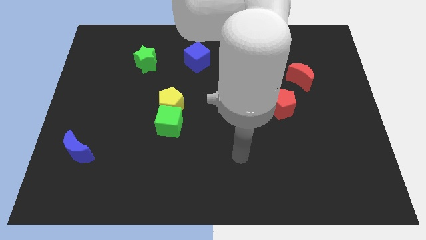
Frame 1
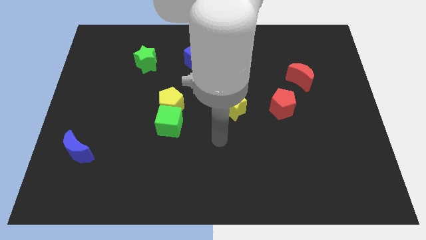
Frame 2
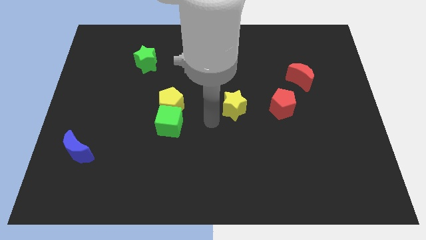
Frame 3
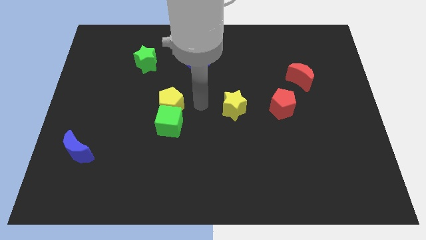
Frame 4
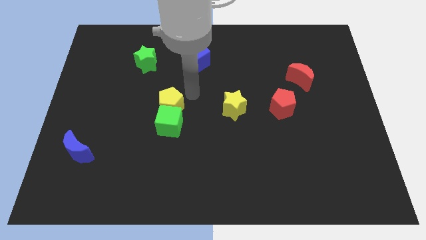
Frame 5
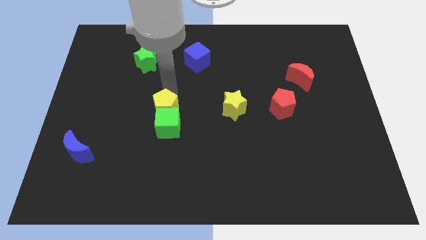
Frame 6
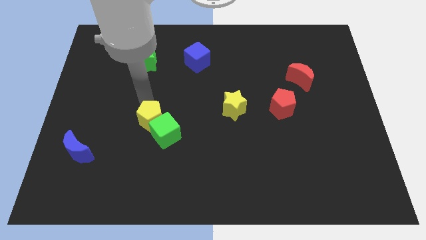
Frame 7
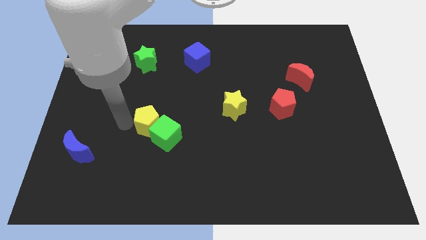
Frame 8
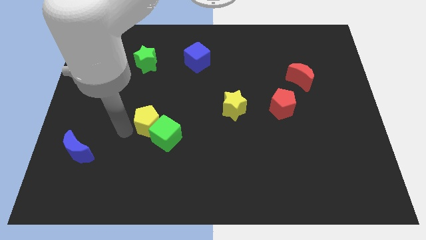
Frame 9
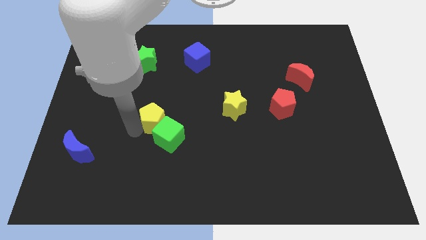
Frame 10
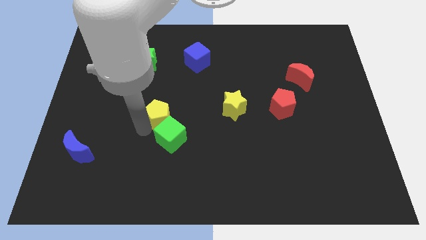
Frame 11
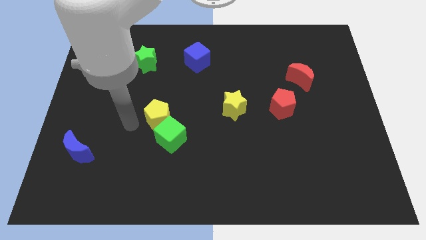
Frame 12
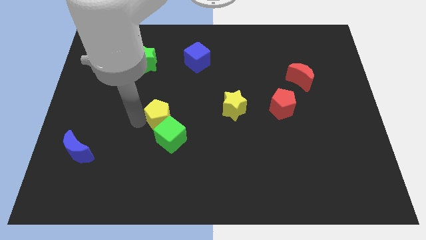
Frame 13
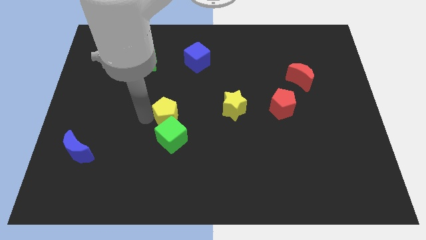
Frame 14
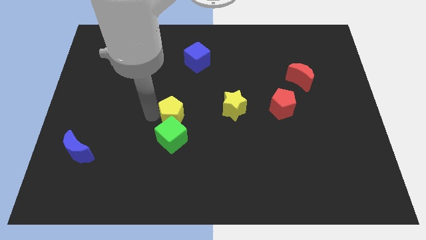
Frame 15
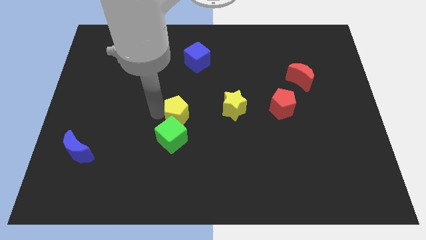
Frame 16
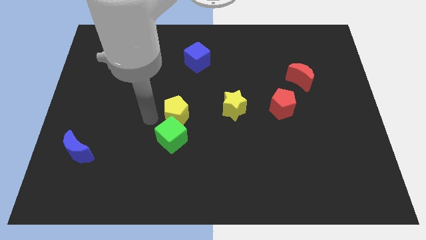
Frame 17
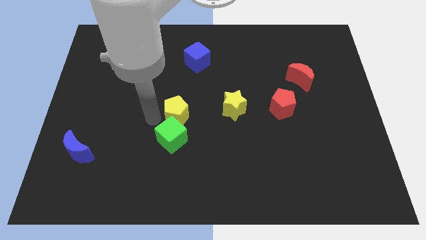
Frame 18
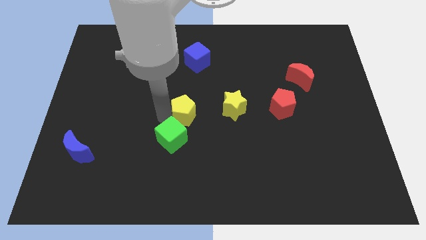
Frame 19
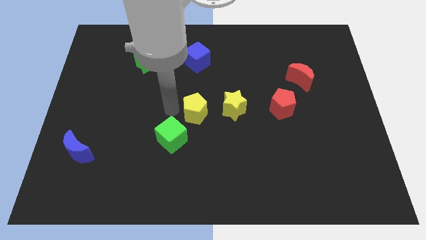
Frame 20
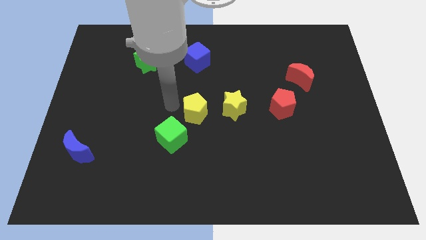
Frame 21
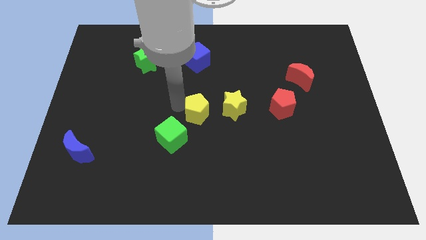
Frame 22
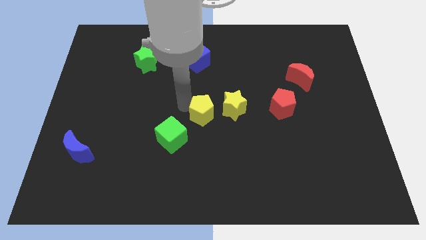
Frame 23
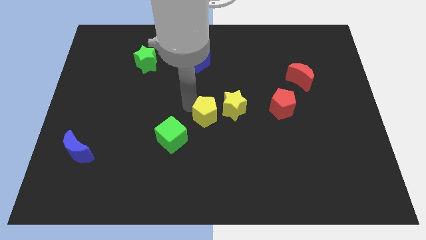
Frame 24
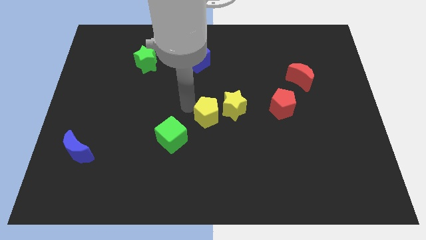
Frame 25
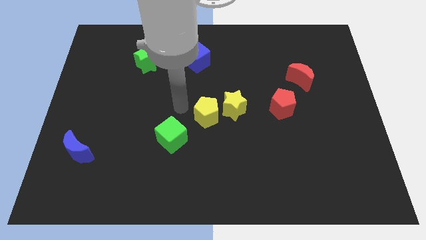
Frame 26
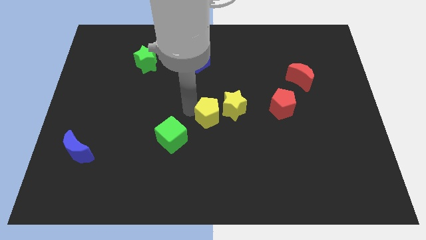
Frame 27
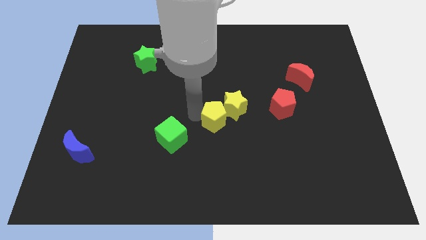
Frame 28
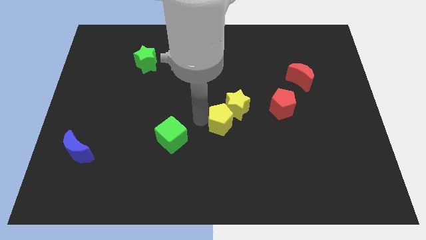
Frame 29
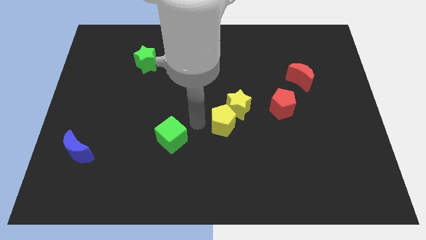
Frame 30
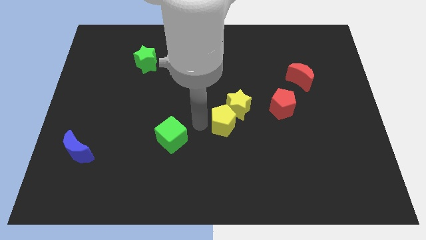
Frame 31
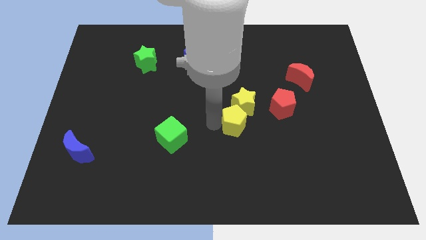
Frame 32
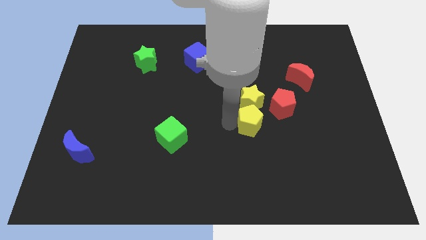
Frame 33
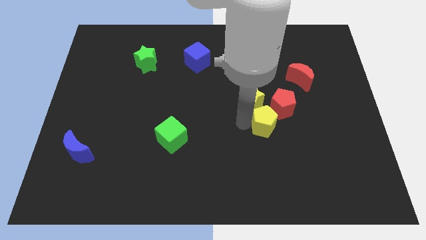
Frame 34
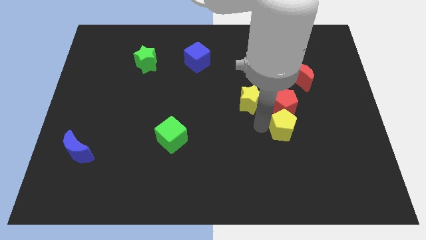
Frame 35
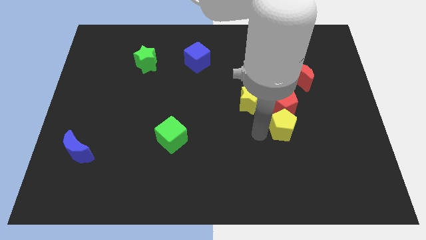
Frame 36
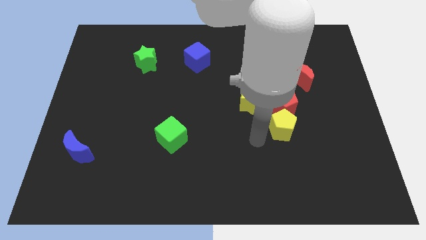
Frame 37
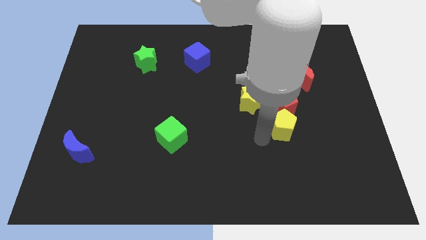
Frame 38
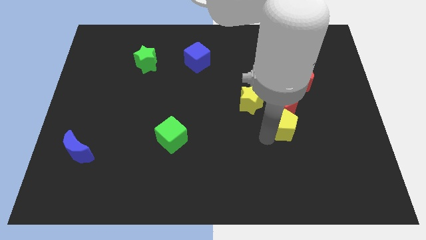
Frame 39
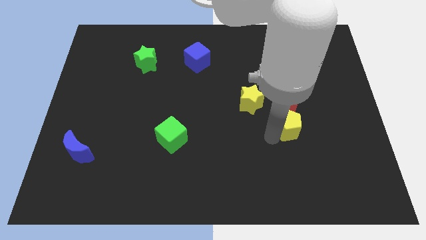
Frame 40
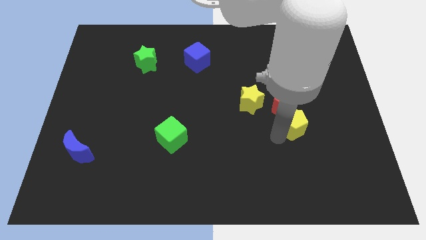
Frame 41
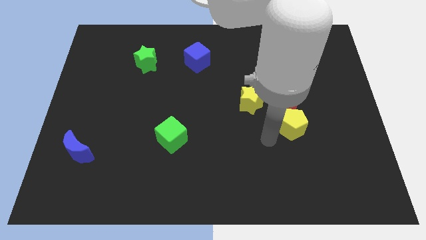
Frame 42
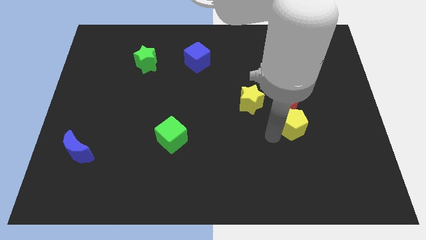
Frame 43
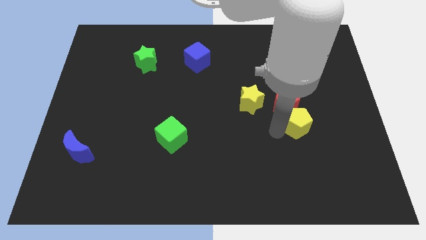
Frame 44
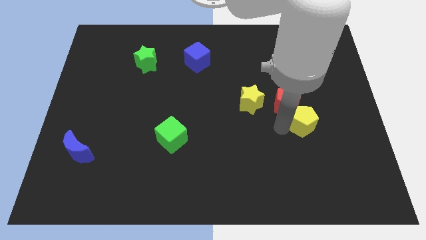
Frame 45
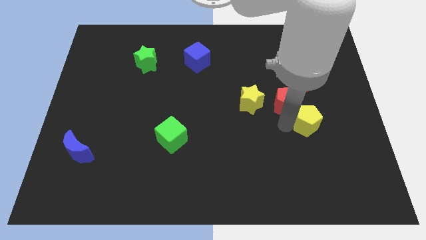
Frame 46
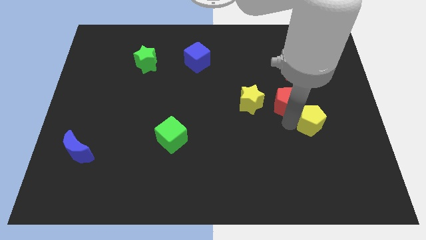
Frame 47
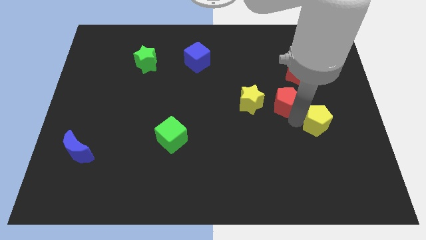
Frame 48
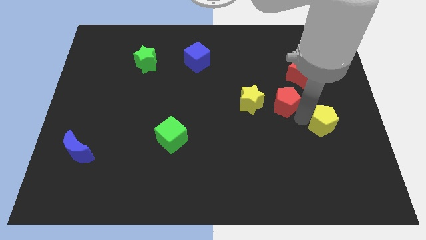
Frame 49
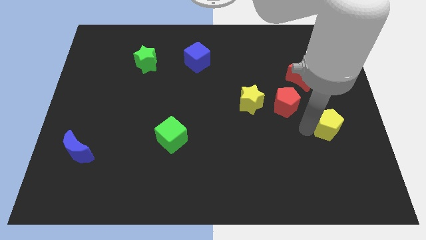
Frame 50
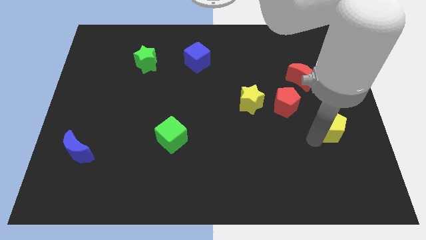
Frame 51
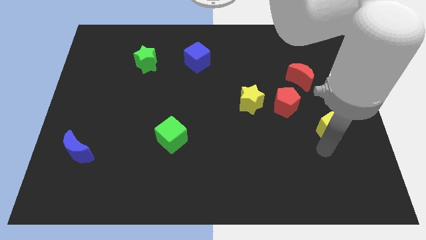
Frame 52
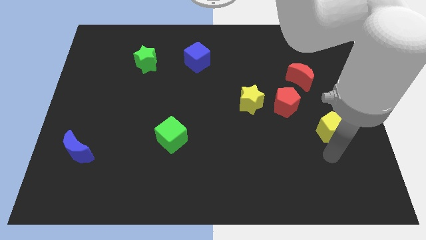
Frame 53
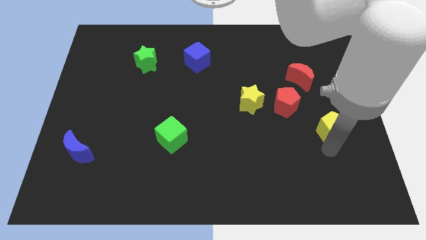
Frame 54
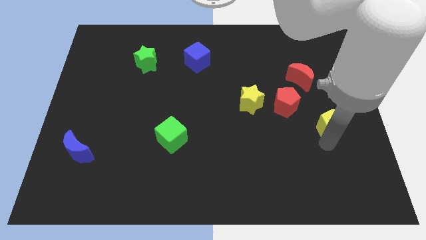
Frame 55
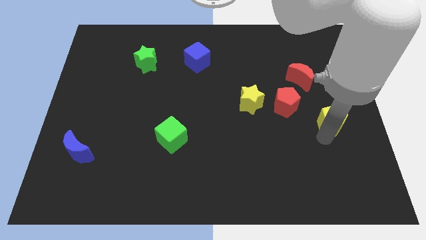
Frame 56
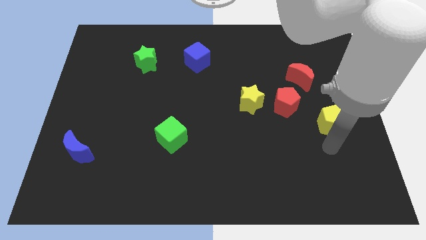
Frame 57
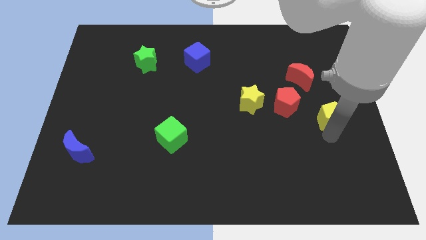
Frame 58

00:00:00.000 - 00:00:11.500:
put the yellow pentagon right of the red pentagon

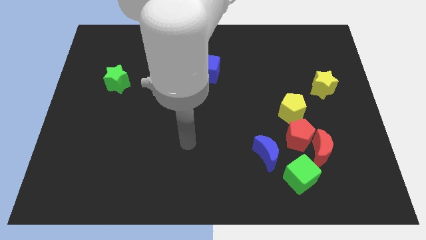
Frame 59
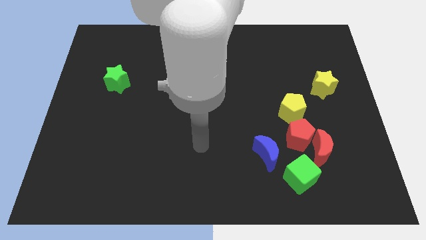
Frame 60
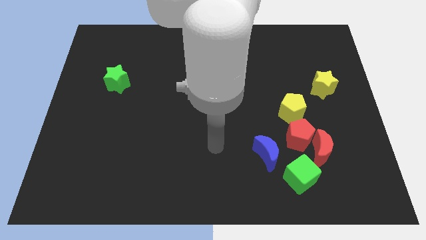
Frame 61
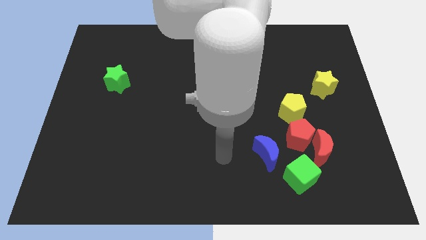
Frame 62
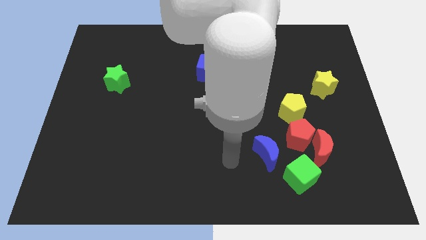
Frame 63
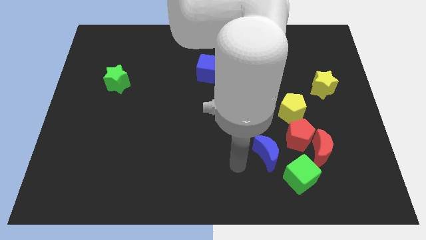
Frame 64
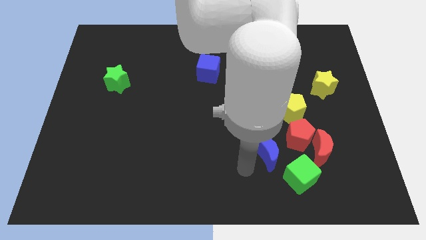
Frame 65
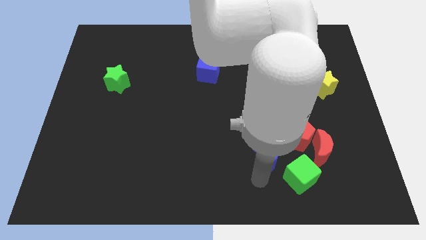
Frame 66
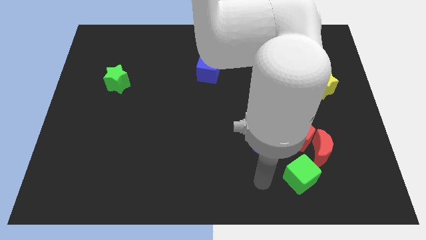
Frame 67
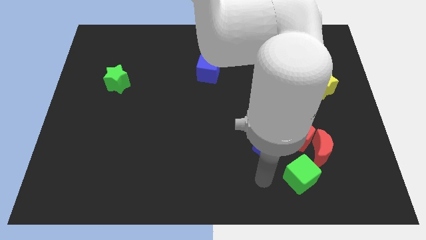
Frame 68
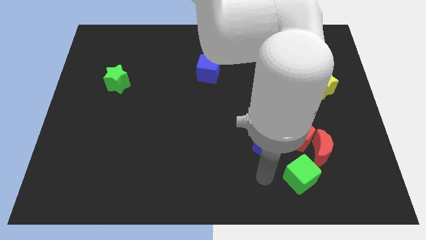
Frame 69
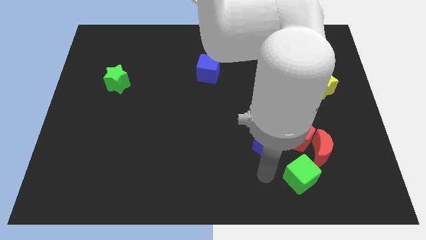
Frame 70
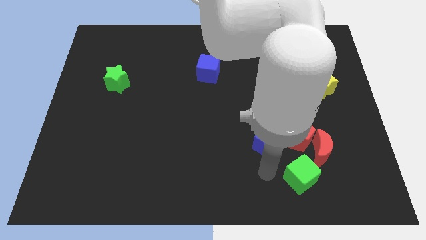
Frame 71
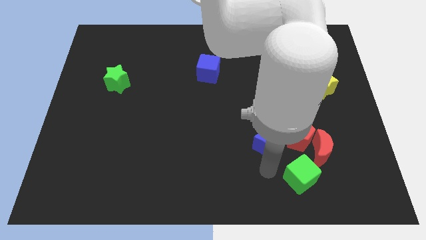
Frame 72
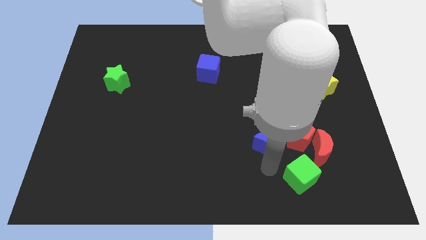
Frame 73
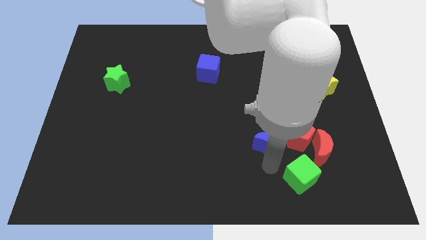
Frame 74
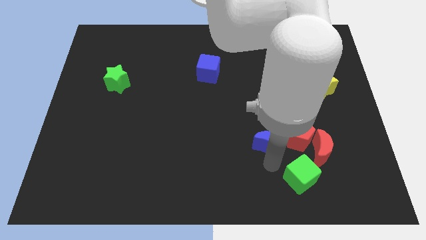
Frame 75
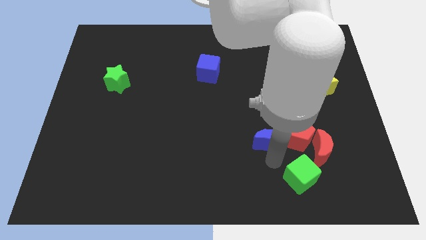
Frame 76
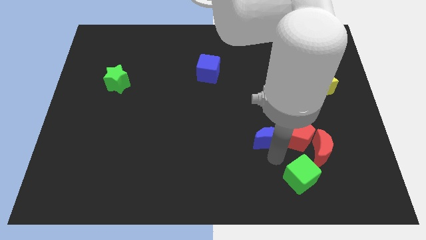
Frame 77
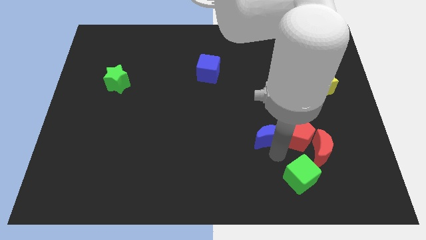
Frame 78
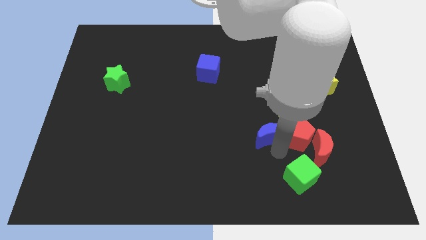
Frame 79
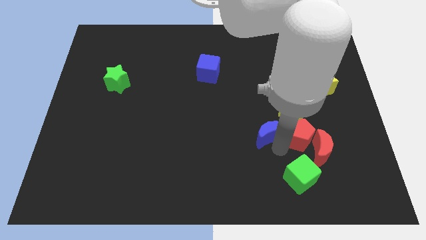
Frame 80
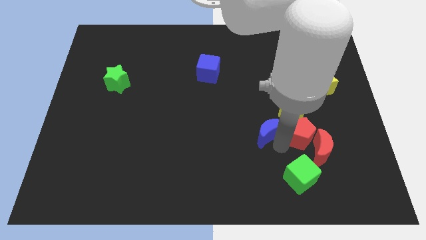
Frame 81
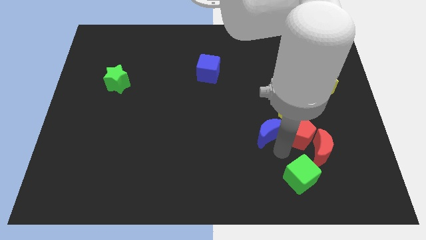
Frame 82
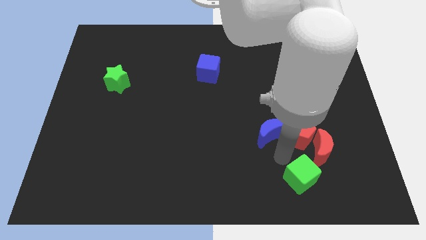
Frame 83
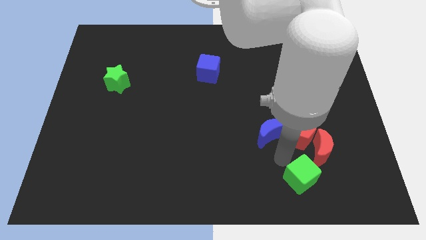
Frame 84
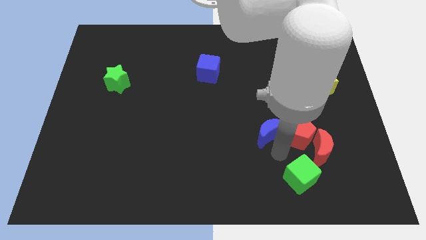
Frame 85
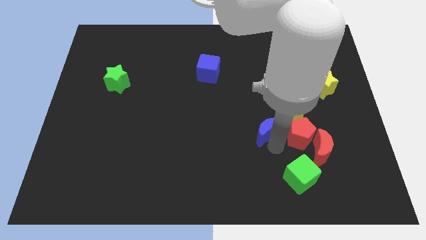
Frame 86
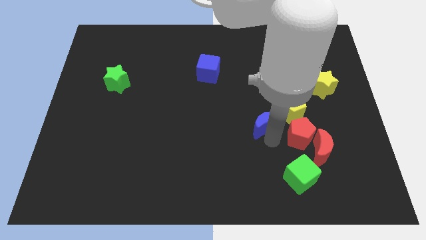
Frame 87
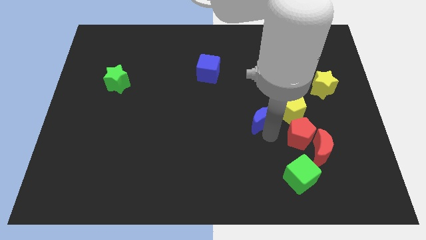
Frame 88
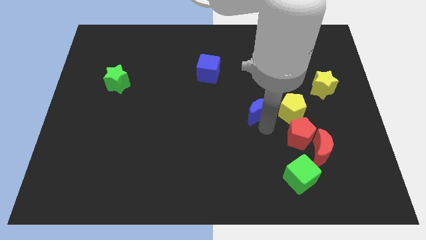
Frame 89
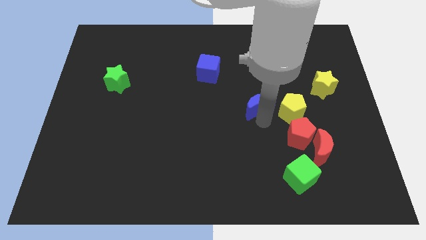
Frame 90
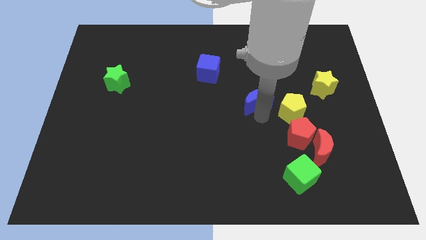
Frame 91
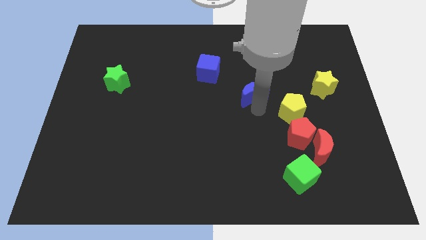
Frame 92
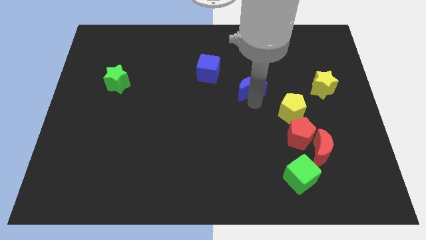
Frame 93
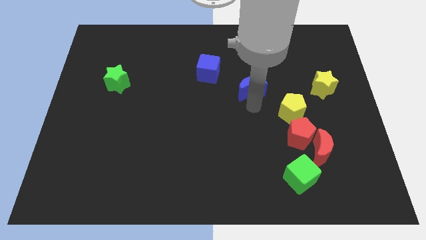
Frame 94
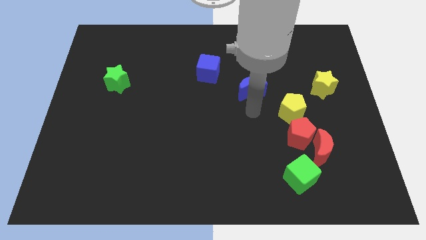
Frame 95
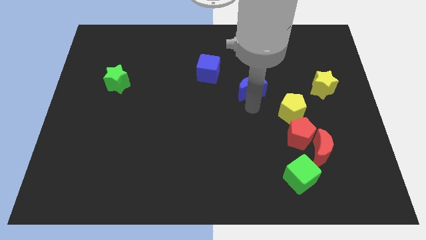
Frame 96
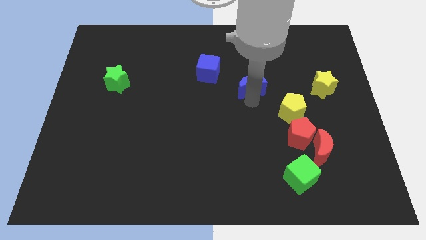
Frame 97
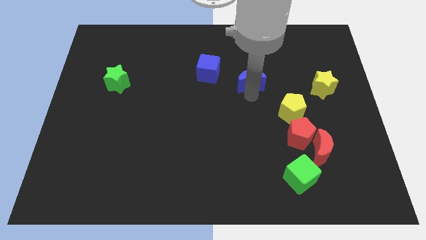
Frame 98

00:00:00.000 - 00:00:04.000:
push the blue moon to the right side of the blue cube
